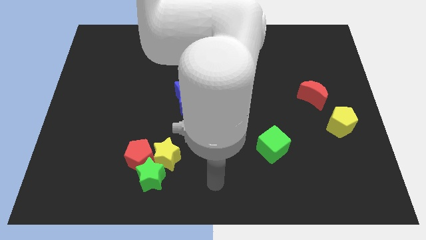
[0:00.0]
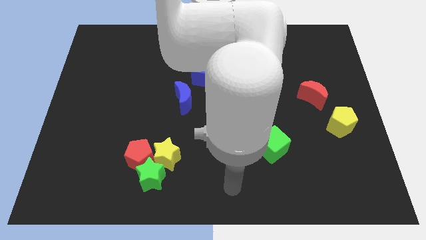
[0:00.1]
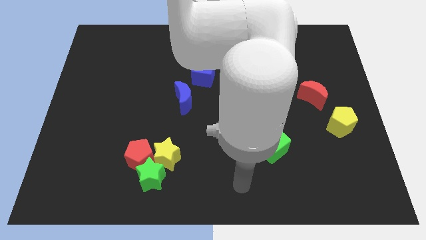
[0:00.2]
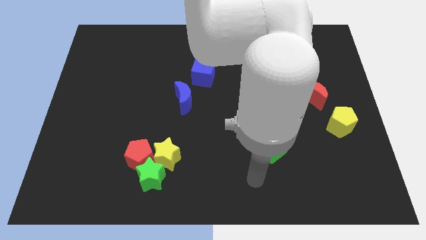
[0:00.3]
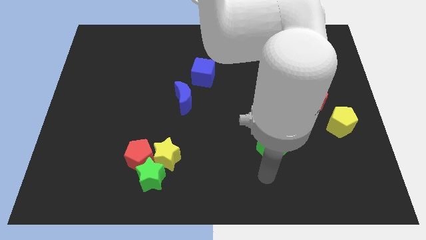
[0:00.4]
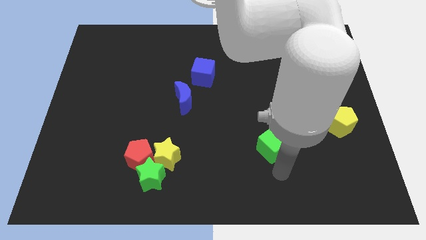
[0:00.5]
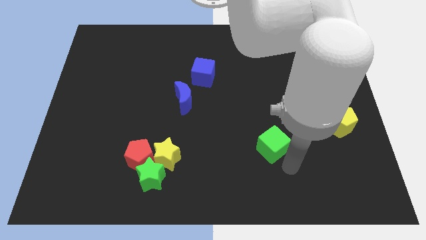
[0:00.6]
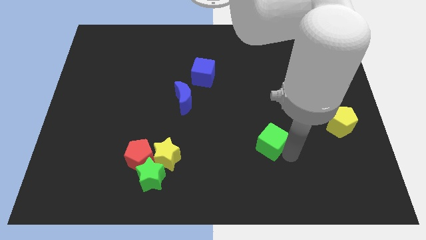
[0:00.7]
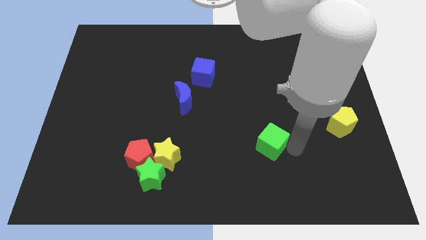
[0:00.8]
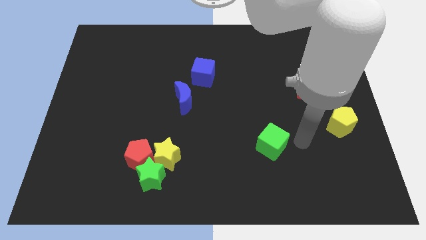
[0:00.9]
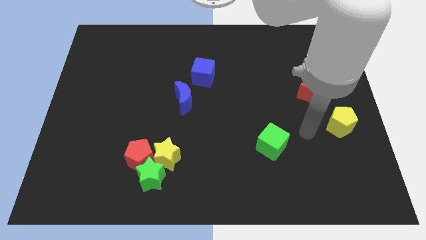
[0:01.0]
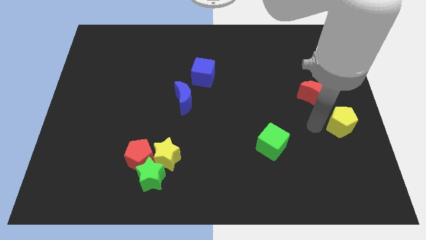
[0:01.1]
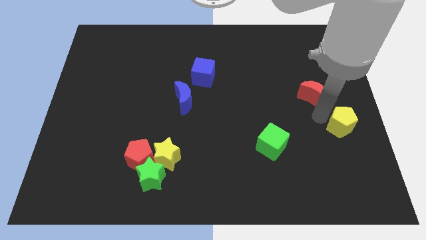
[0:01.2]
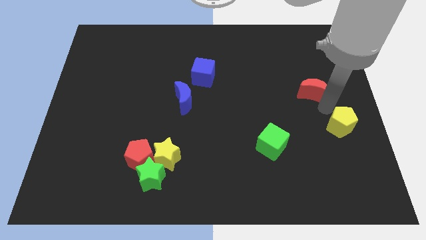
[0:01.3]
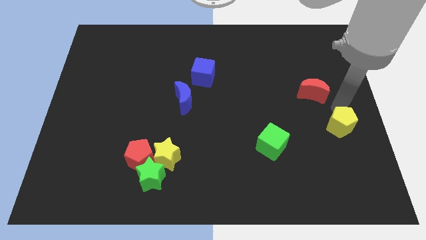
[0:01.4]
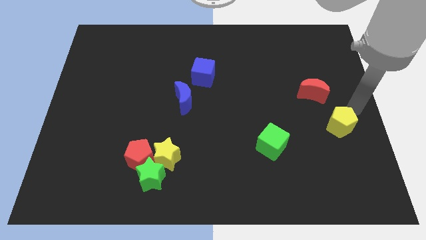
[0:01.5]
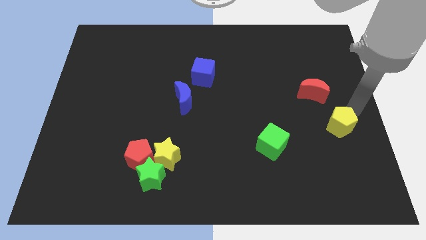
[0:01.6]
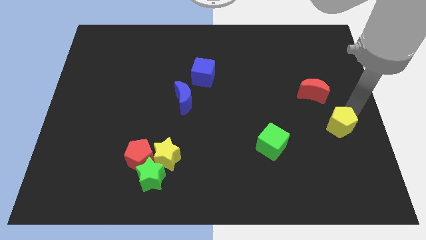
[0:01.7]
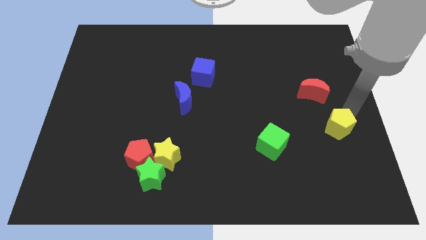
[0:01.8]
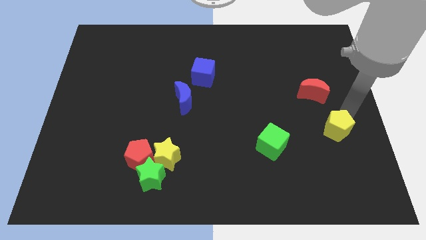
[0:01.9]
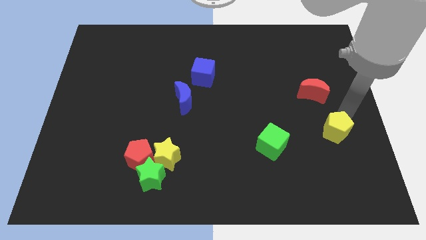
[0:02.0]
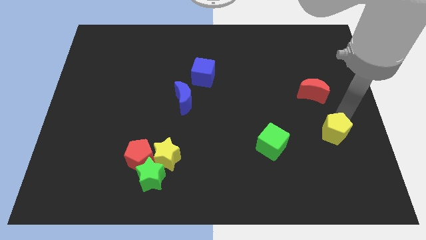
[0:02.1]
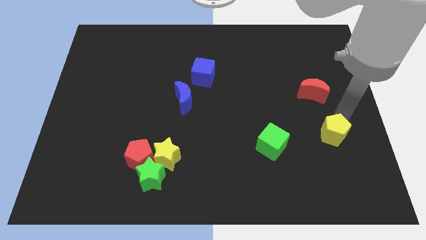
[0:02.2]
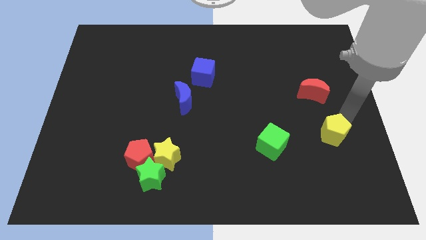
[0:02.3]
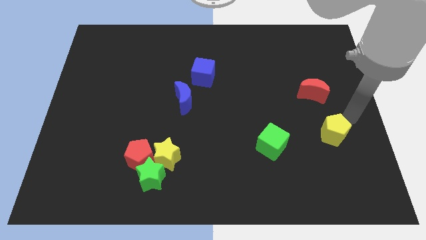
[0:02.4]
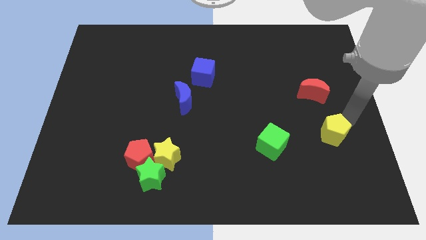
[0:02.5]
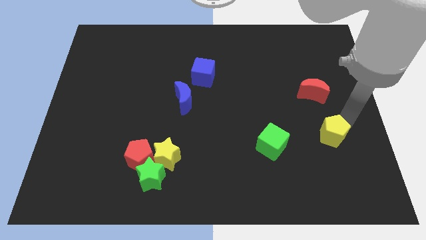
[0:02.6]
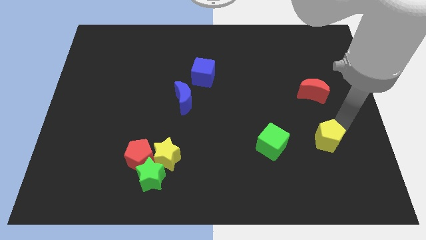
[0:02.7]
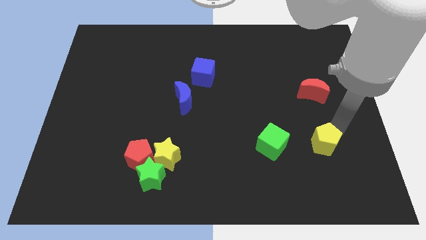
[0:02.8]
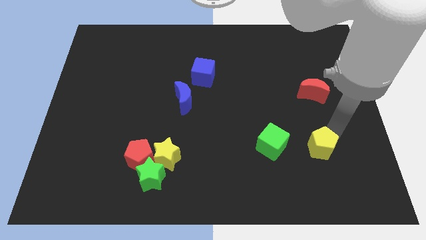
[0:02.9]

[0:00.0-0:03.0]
push the yellow pentagon slightly diagonally down and left

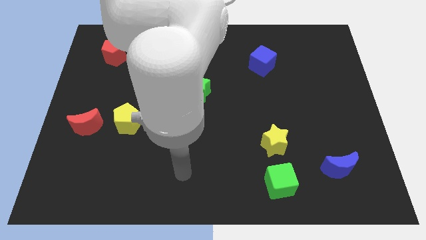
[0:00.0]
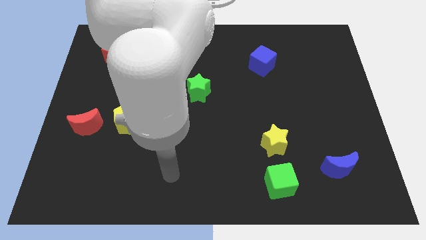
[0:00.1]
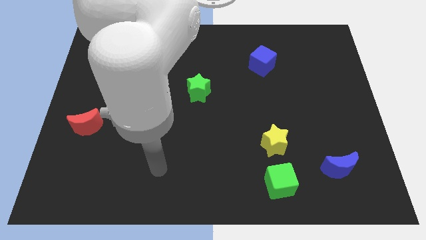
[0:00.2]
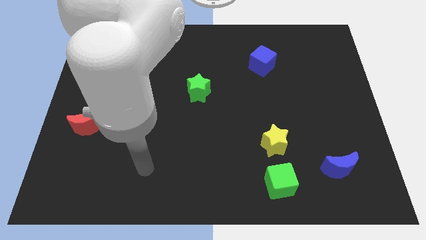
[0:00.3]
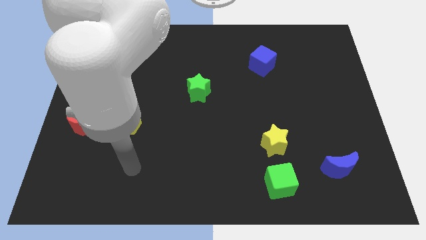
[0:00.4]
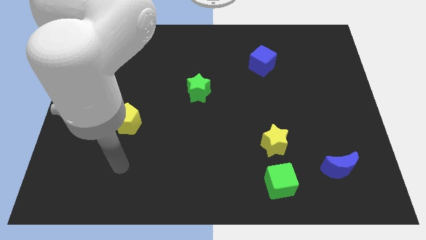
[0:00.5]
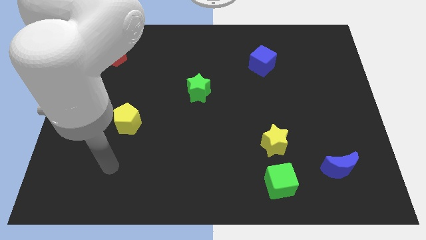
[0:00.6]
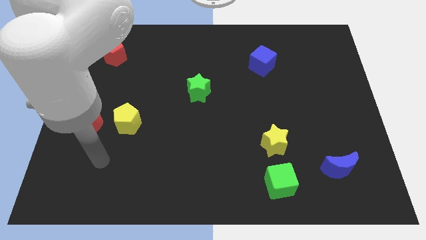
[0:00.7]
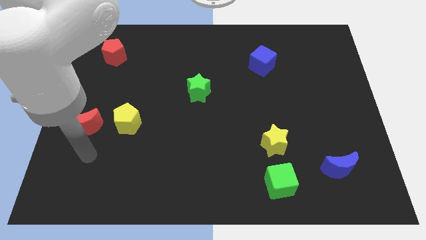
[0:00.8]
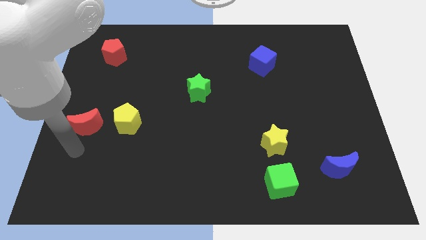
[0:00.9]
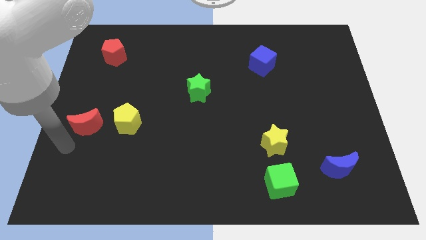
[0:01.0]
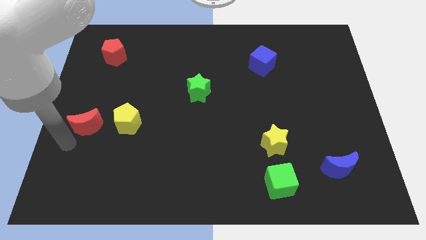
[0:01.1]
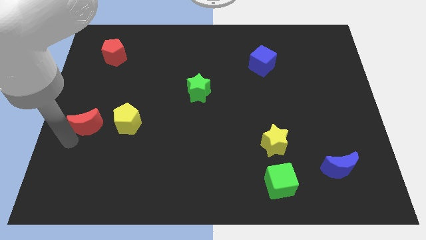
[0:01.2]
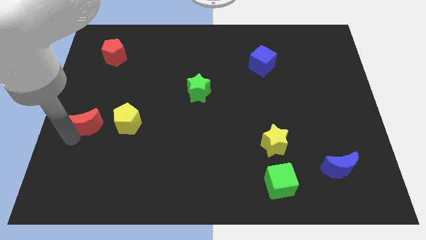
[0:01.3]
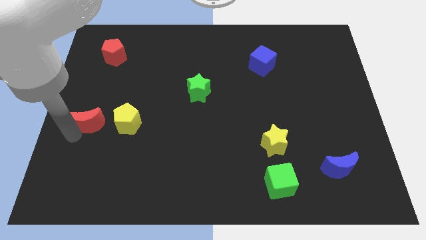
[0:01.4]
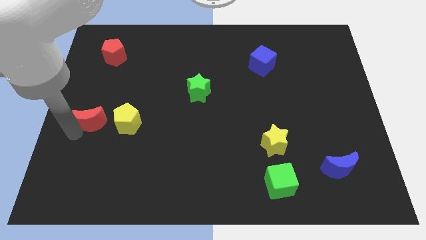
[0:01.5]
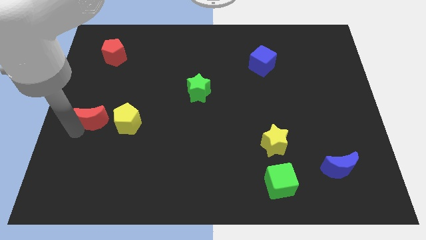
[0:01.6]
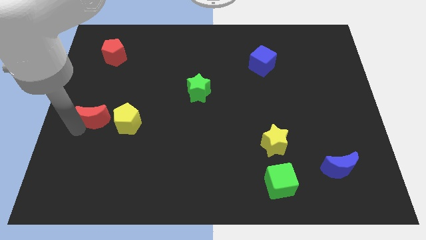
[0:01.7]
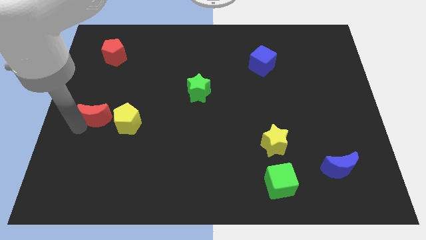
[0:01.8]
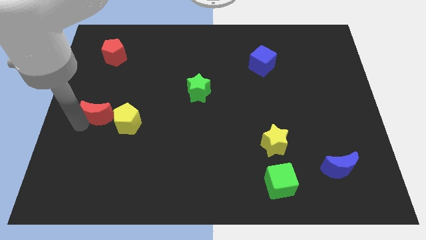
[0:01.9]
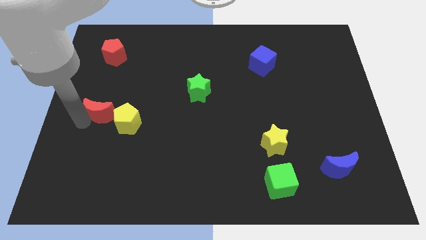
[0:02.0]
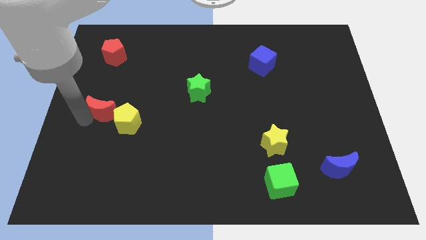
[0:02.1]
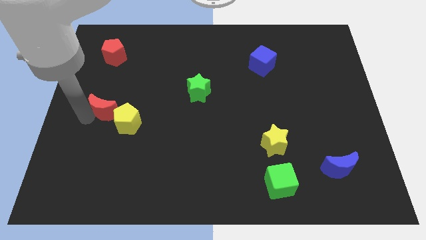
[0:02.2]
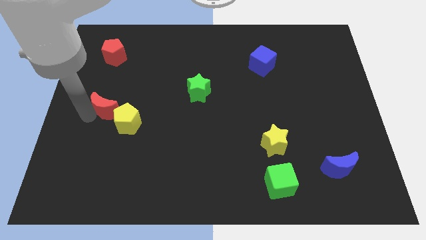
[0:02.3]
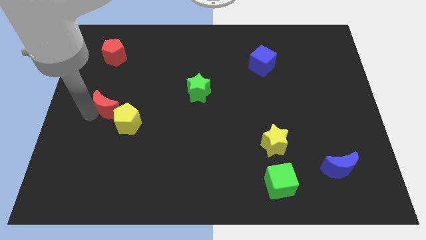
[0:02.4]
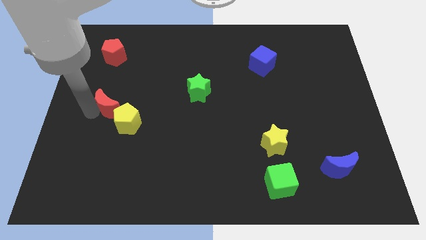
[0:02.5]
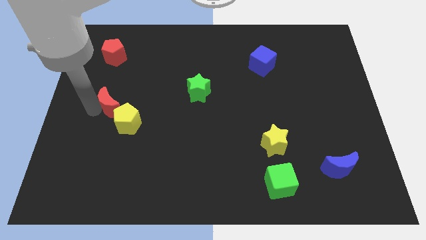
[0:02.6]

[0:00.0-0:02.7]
move the red moon up and right somewhat

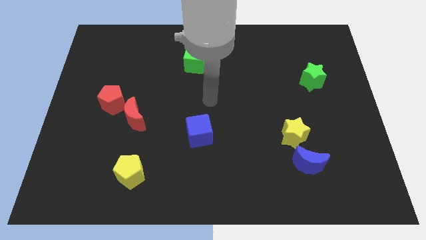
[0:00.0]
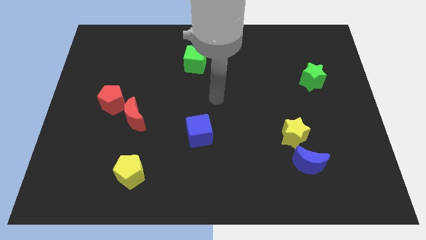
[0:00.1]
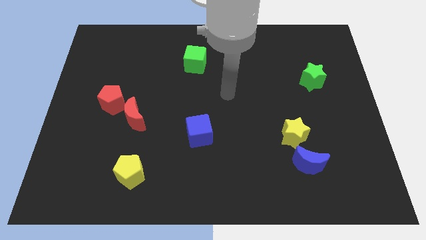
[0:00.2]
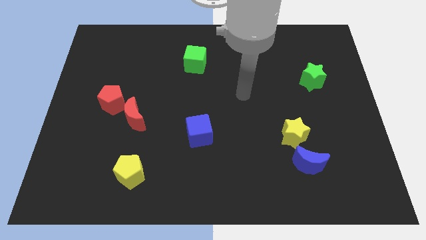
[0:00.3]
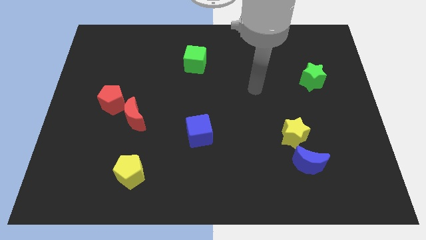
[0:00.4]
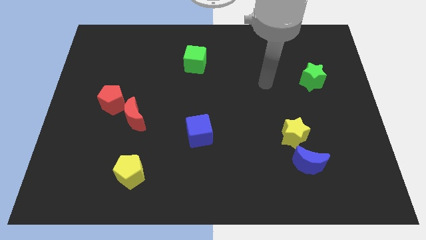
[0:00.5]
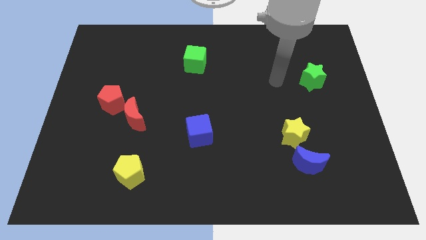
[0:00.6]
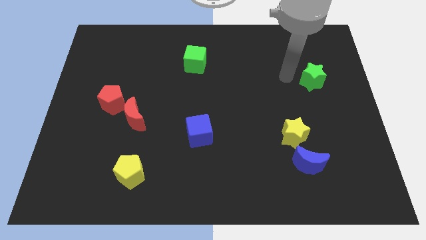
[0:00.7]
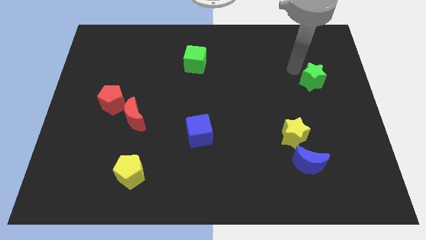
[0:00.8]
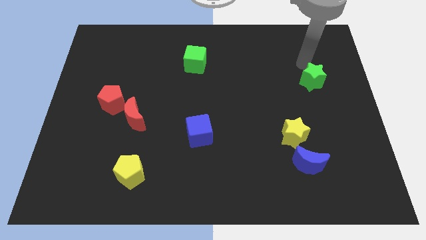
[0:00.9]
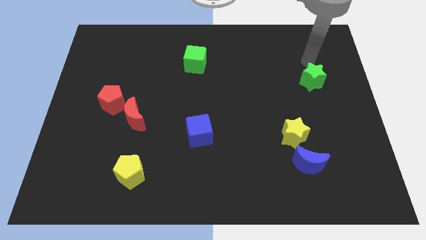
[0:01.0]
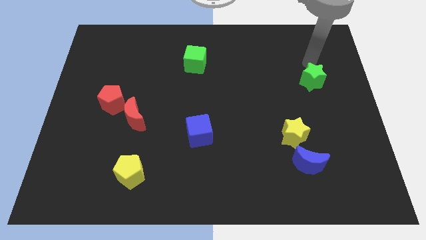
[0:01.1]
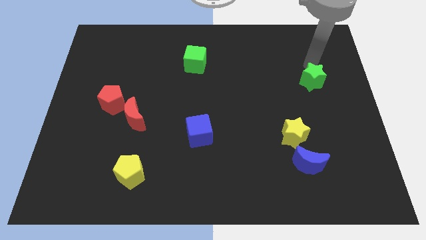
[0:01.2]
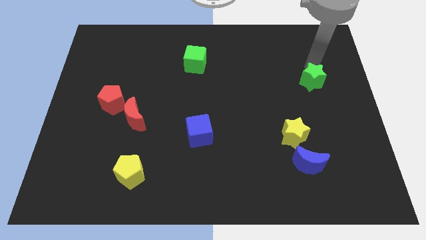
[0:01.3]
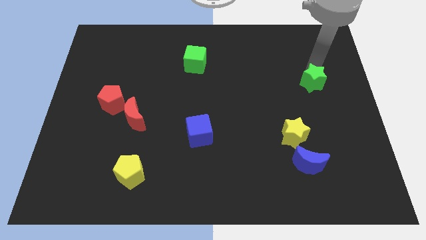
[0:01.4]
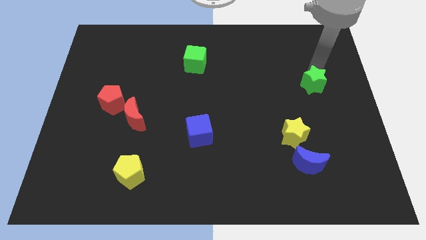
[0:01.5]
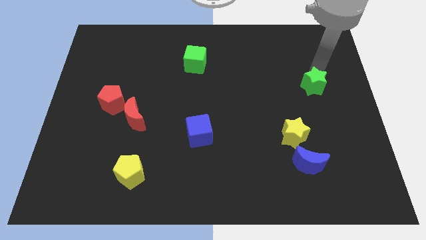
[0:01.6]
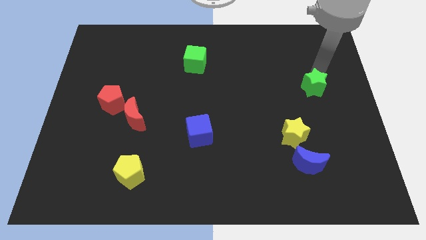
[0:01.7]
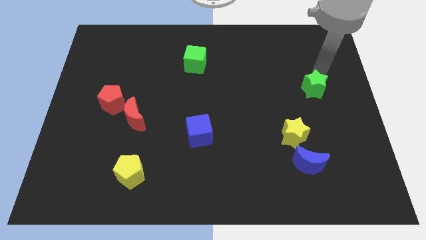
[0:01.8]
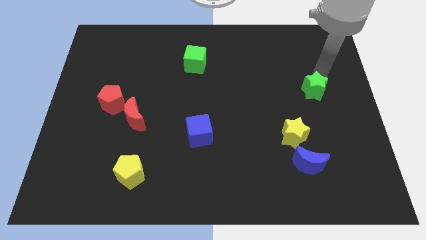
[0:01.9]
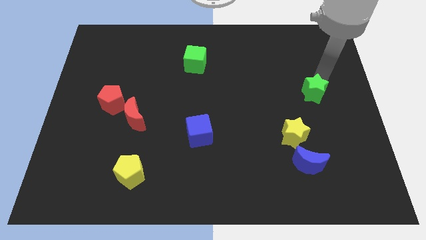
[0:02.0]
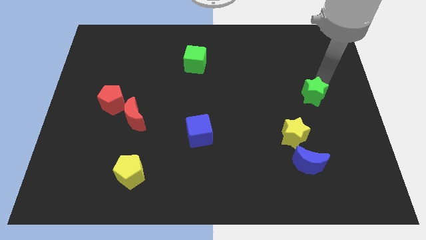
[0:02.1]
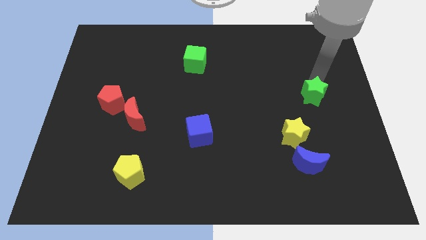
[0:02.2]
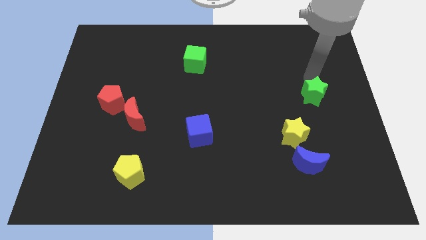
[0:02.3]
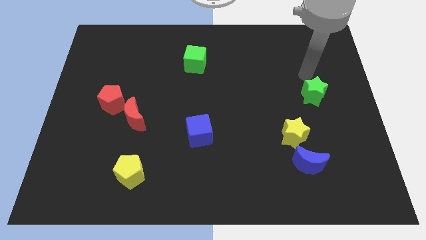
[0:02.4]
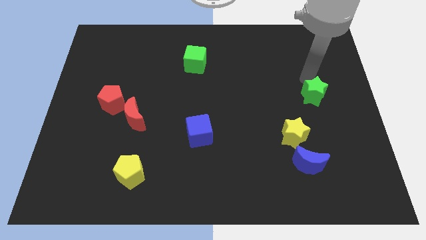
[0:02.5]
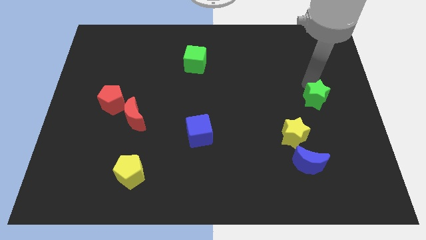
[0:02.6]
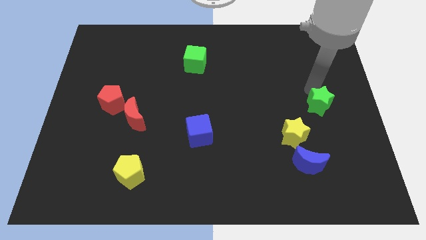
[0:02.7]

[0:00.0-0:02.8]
move the green star down a little bit
